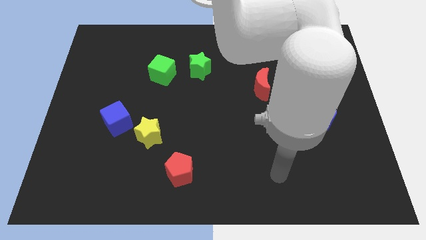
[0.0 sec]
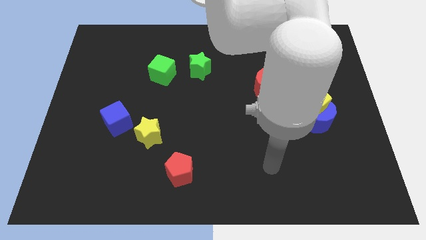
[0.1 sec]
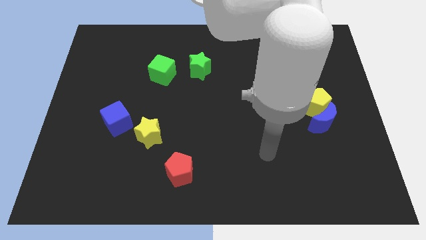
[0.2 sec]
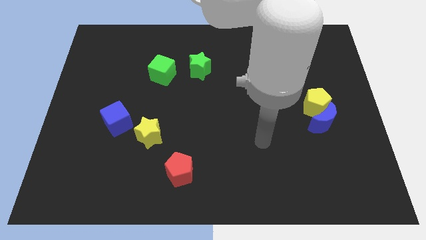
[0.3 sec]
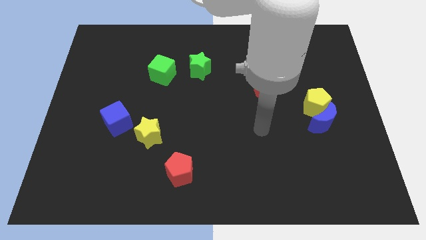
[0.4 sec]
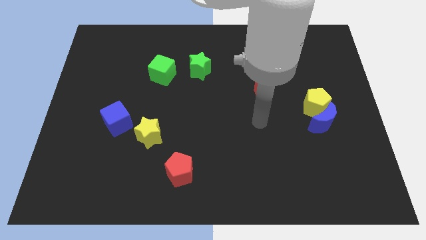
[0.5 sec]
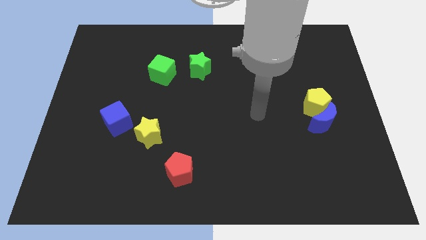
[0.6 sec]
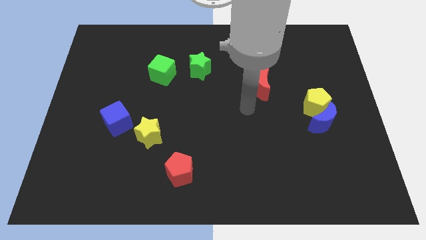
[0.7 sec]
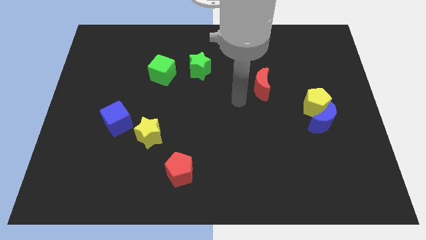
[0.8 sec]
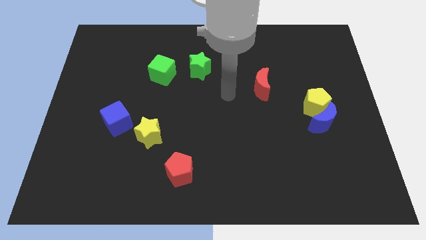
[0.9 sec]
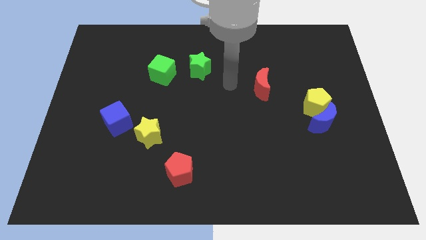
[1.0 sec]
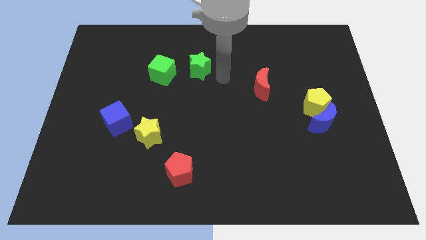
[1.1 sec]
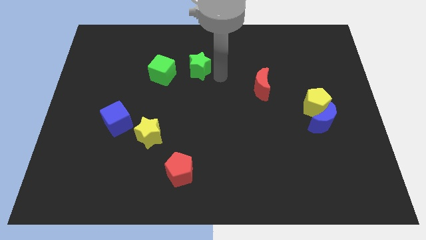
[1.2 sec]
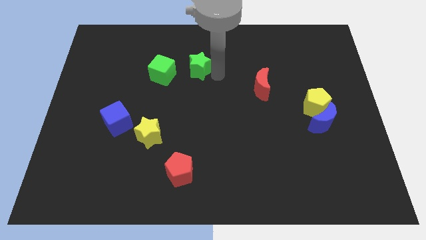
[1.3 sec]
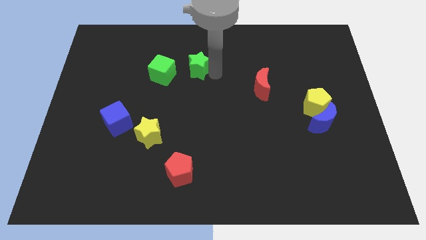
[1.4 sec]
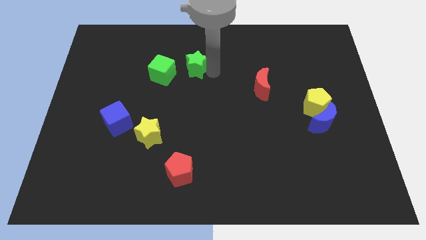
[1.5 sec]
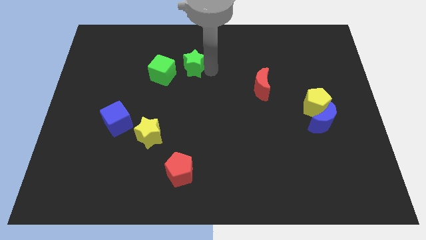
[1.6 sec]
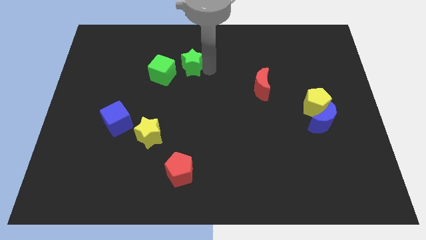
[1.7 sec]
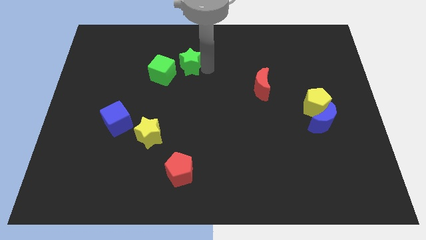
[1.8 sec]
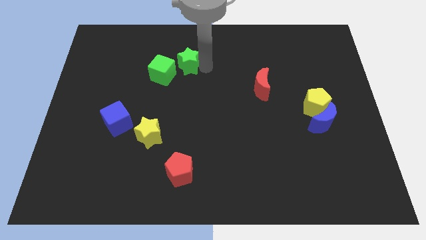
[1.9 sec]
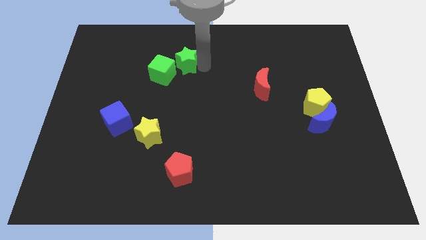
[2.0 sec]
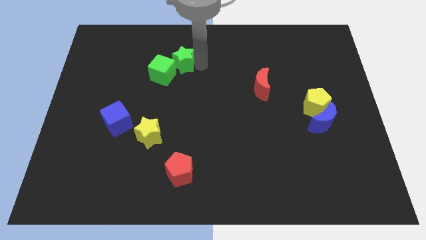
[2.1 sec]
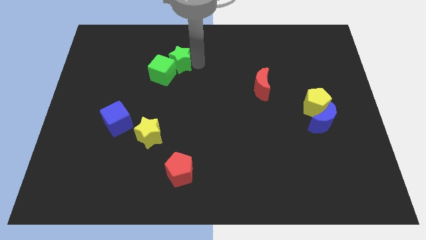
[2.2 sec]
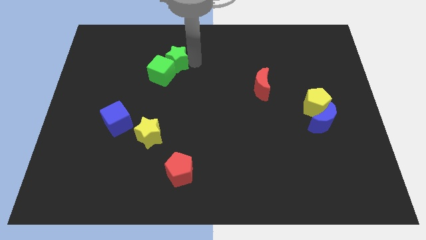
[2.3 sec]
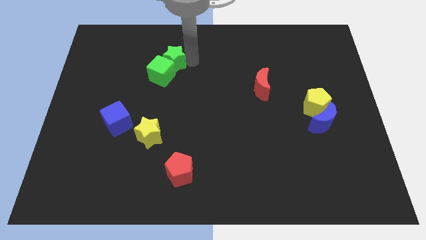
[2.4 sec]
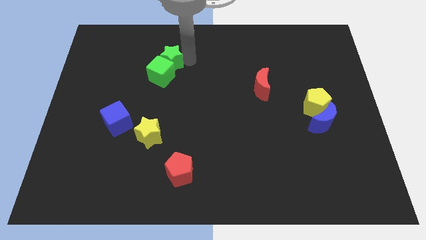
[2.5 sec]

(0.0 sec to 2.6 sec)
push the green star a bit left

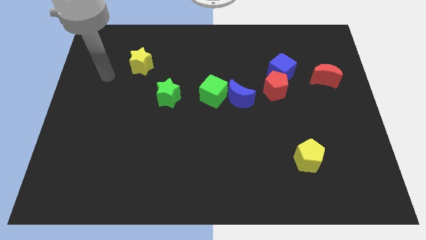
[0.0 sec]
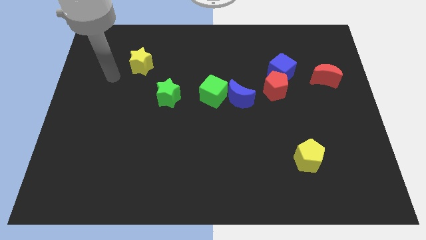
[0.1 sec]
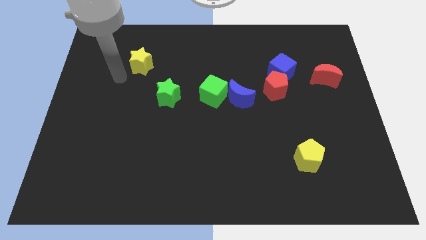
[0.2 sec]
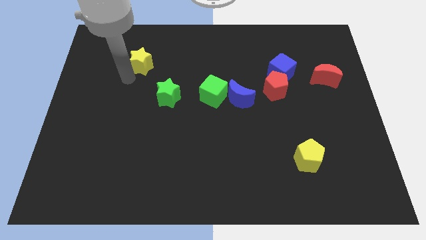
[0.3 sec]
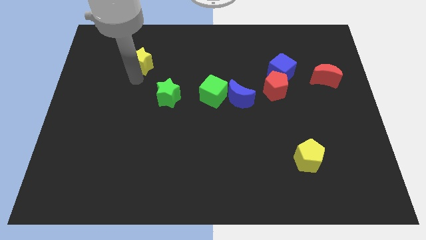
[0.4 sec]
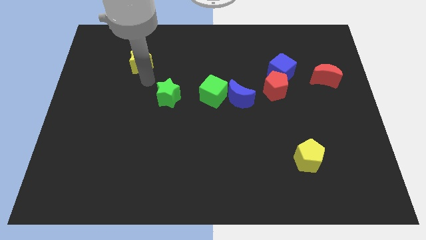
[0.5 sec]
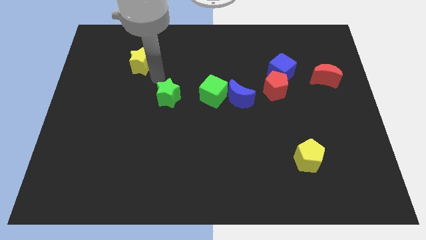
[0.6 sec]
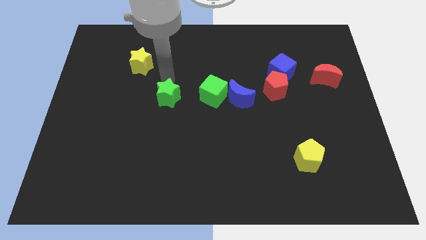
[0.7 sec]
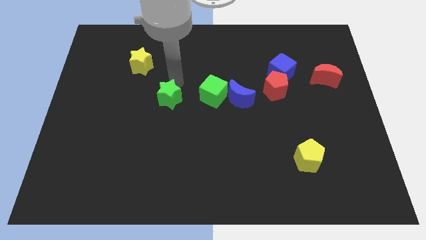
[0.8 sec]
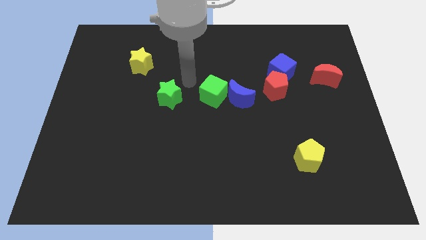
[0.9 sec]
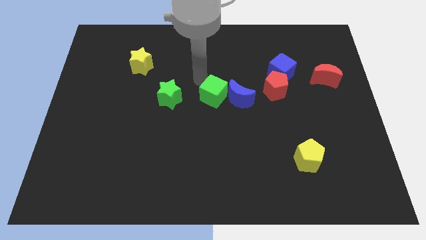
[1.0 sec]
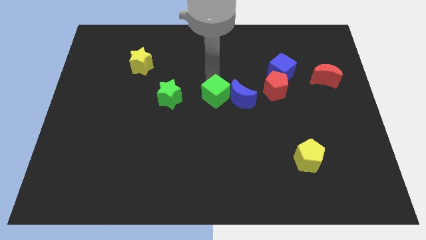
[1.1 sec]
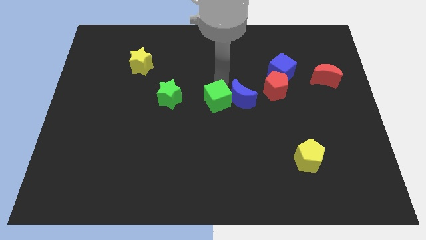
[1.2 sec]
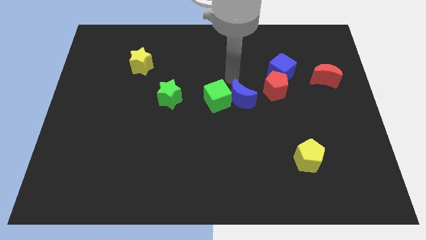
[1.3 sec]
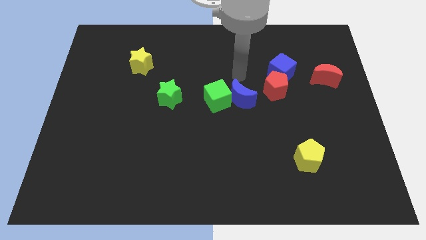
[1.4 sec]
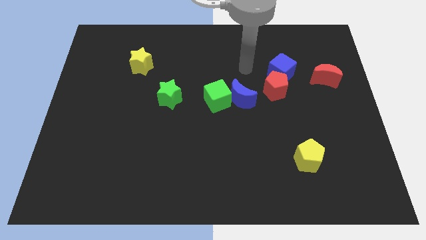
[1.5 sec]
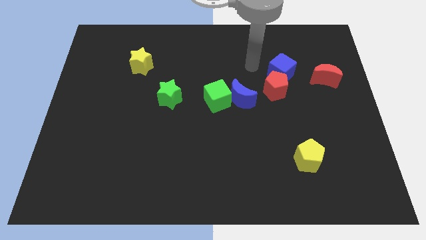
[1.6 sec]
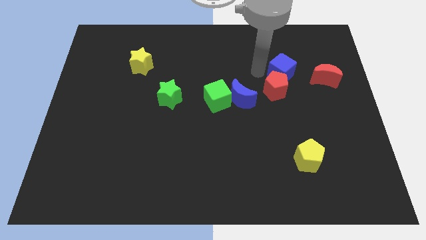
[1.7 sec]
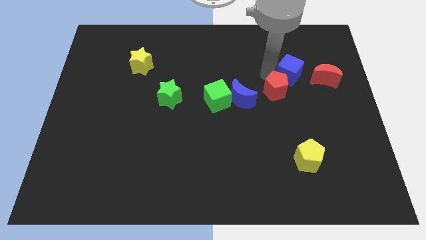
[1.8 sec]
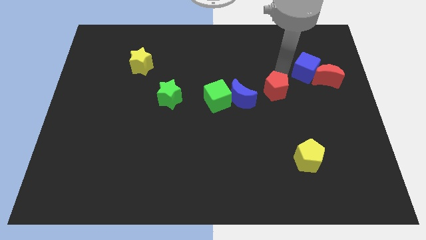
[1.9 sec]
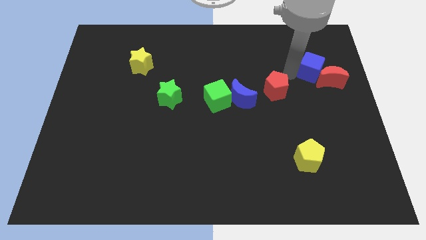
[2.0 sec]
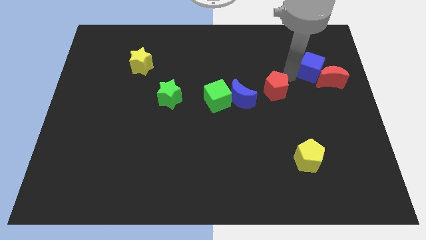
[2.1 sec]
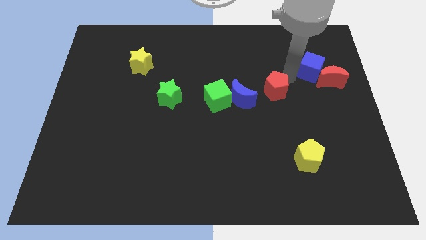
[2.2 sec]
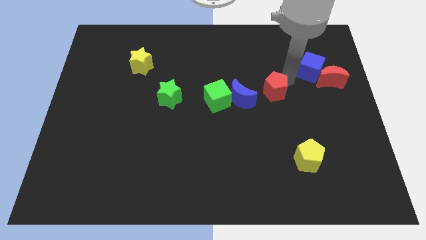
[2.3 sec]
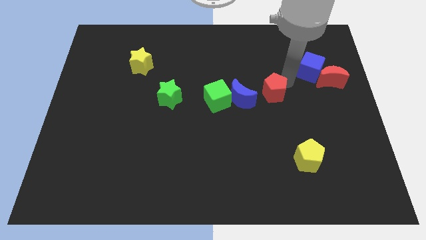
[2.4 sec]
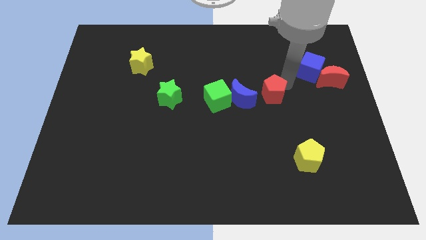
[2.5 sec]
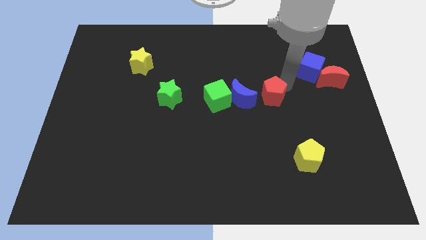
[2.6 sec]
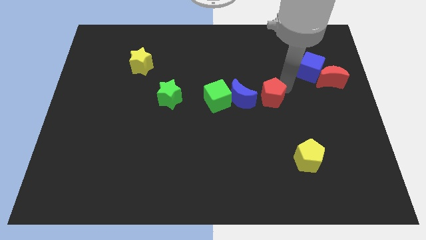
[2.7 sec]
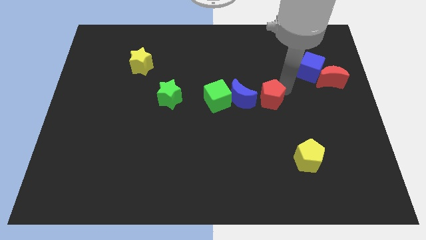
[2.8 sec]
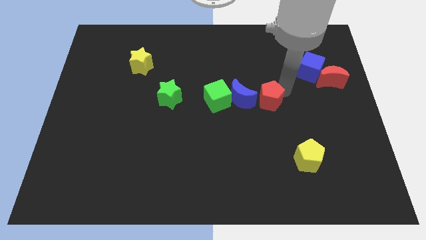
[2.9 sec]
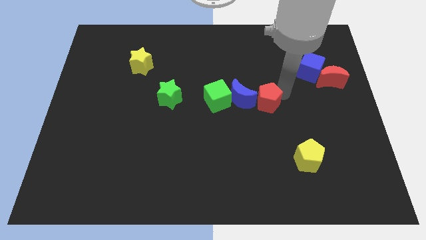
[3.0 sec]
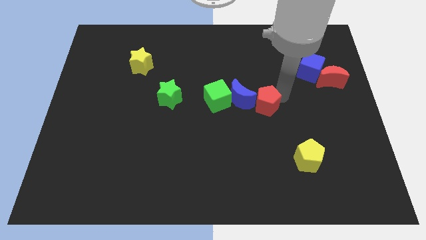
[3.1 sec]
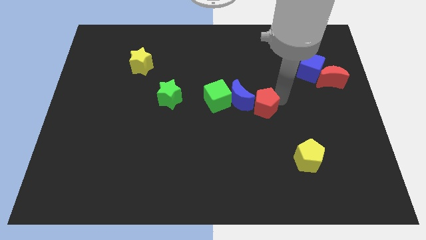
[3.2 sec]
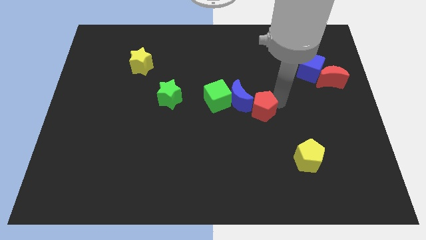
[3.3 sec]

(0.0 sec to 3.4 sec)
slide the red pentagon a little bit down and then to the left

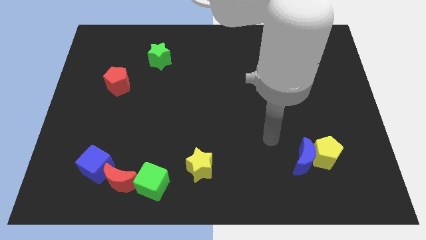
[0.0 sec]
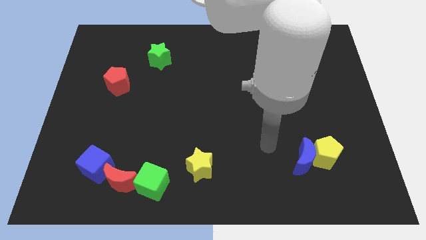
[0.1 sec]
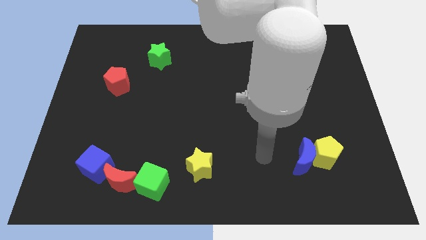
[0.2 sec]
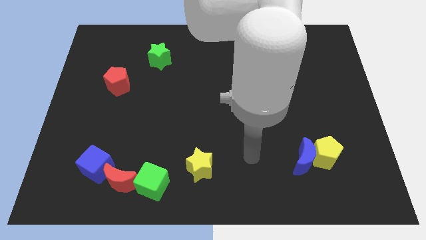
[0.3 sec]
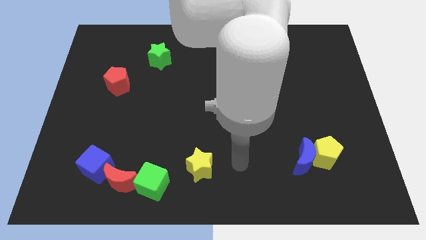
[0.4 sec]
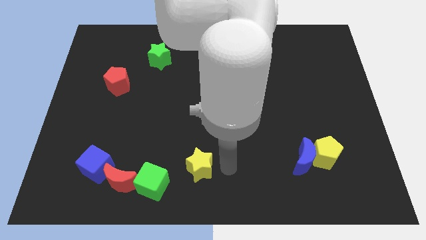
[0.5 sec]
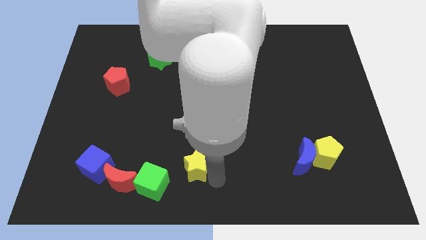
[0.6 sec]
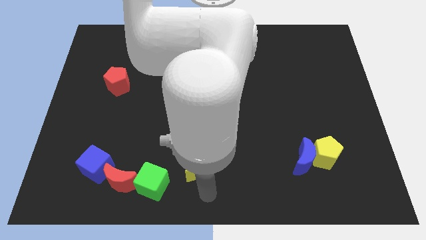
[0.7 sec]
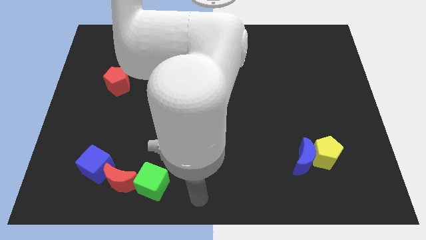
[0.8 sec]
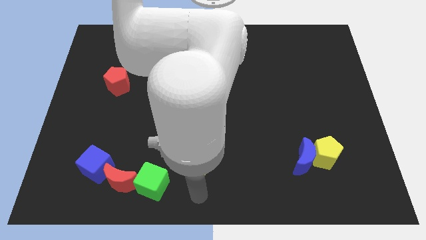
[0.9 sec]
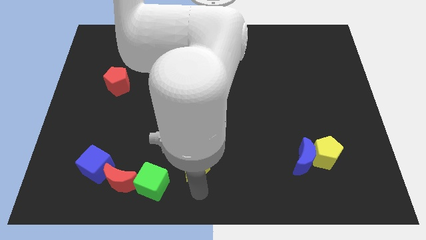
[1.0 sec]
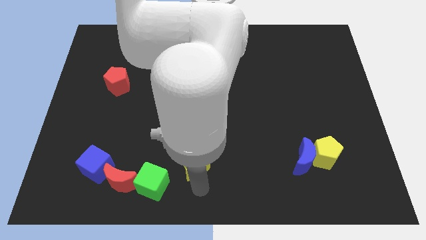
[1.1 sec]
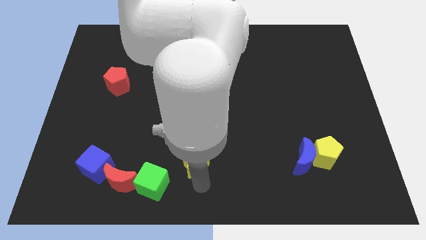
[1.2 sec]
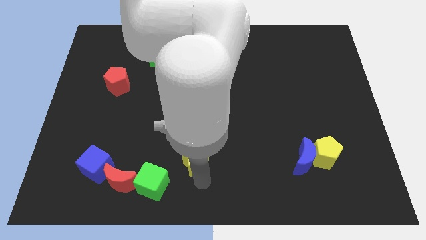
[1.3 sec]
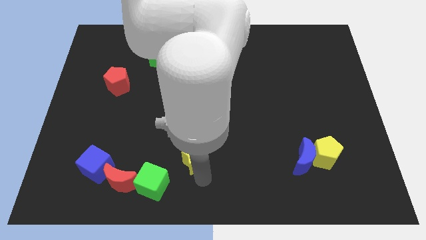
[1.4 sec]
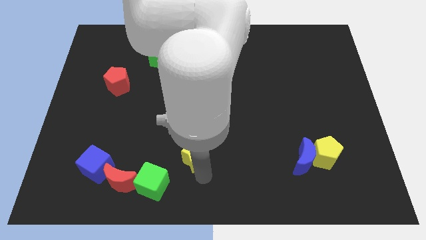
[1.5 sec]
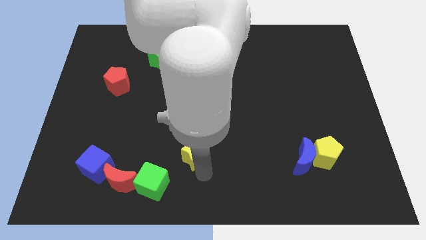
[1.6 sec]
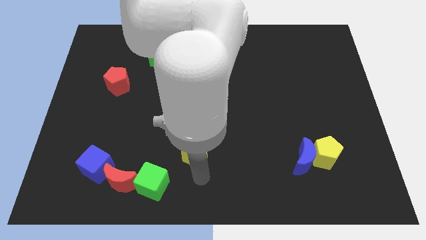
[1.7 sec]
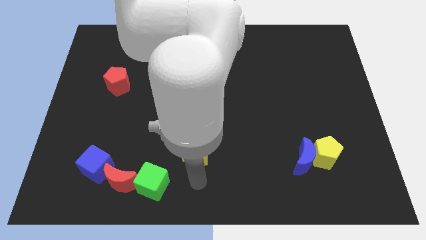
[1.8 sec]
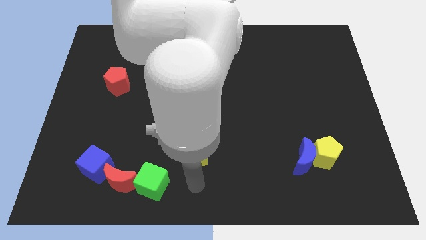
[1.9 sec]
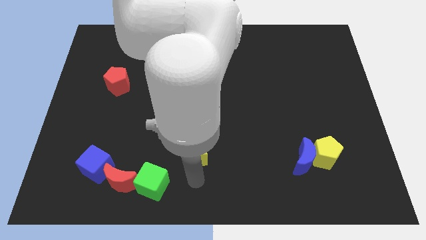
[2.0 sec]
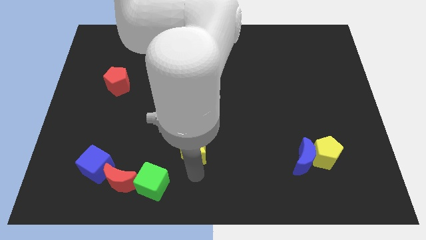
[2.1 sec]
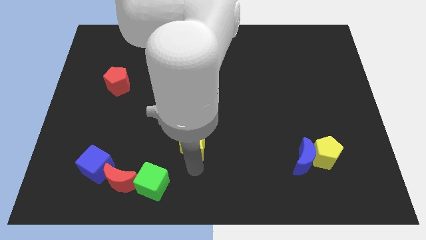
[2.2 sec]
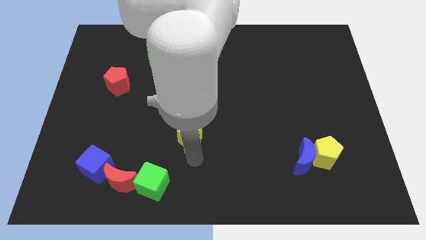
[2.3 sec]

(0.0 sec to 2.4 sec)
slide the yellow star up a little bit
